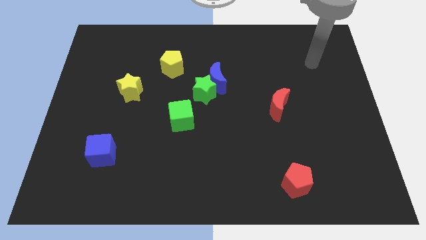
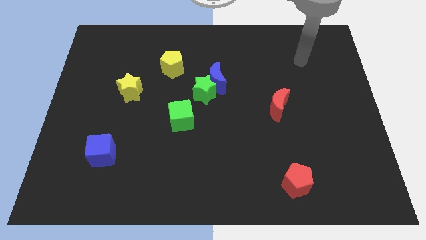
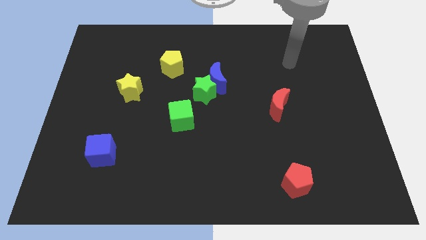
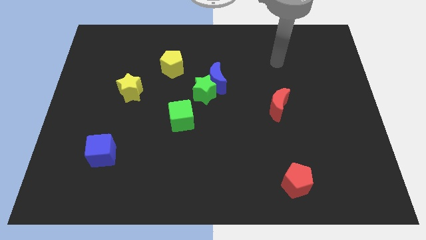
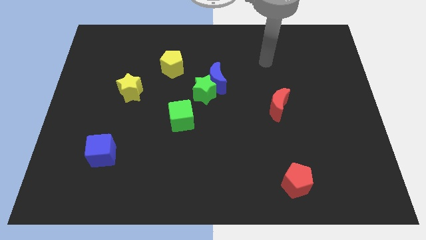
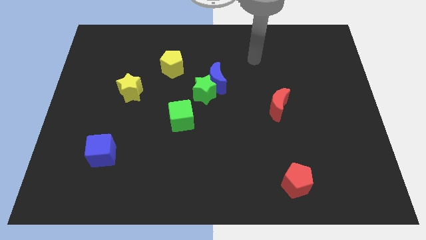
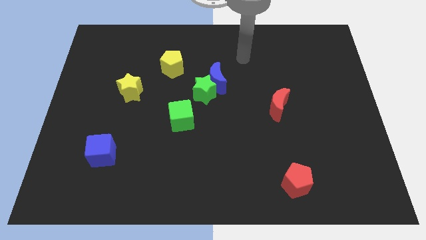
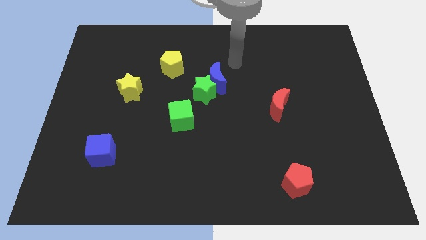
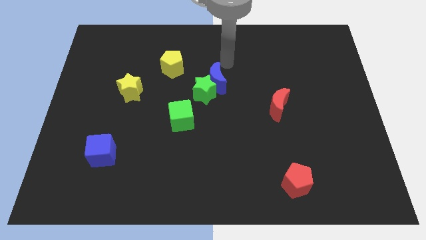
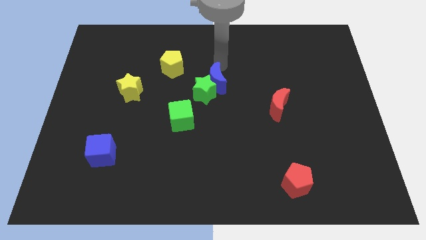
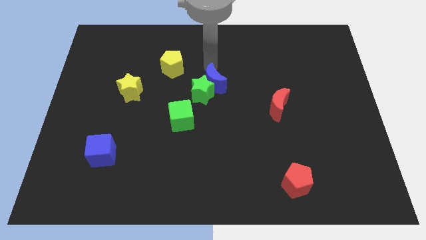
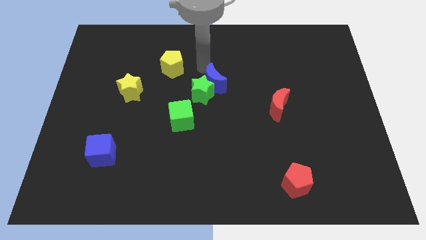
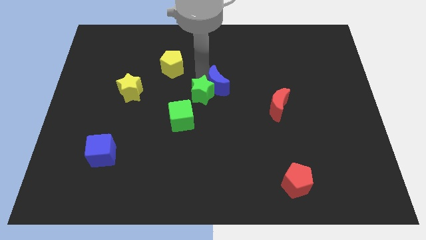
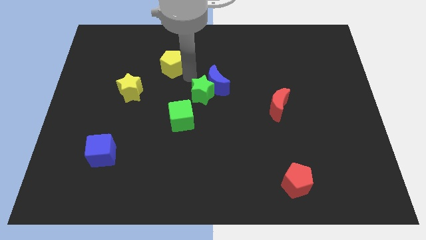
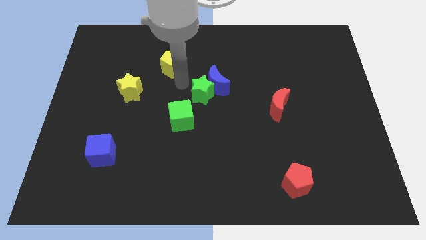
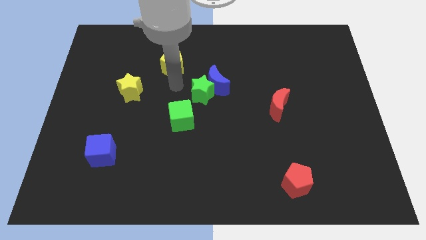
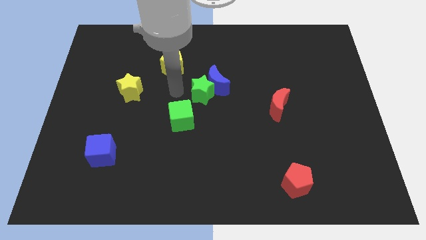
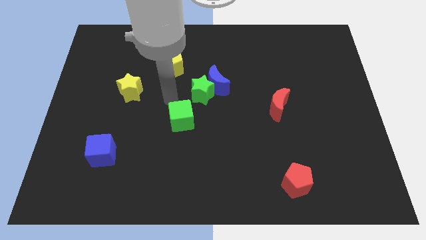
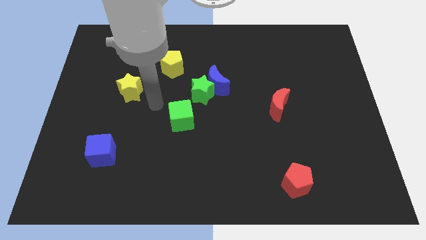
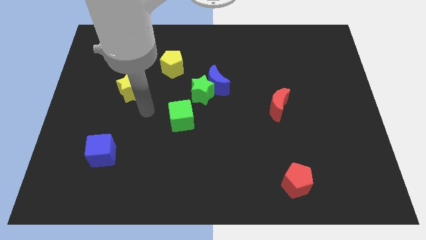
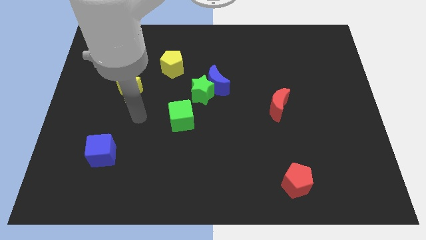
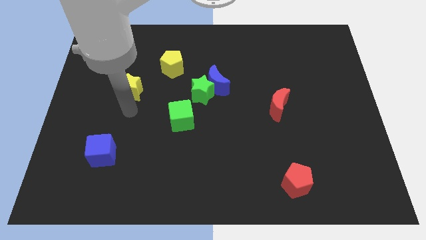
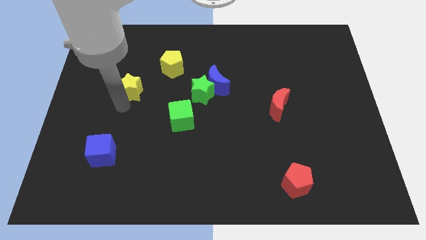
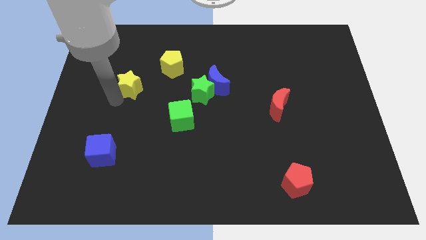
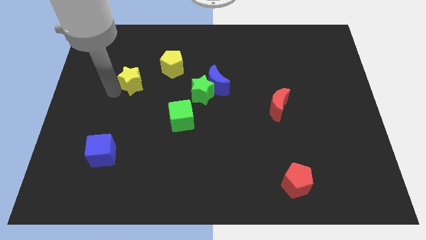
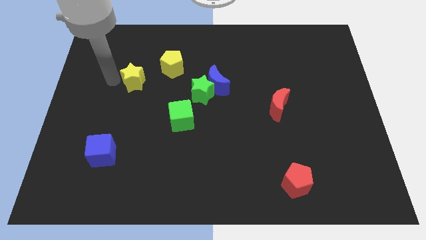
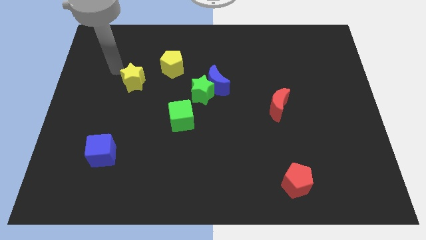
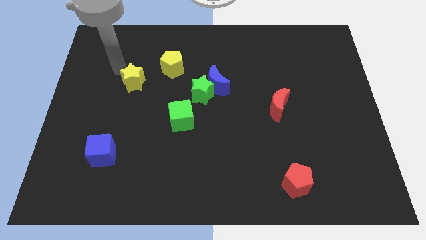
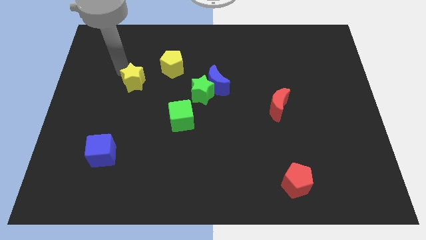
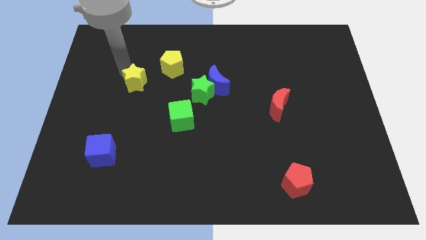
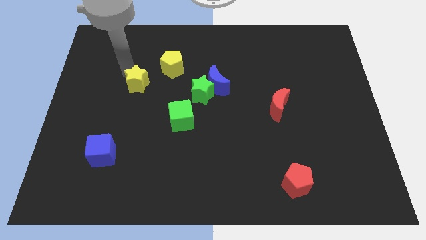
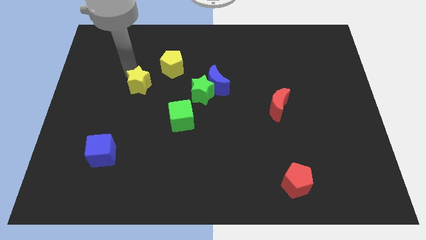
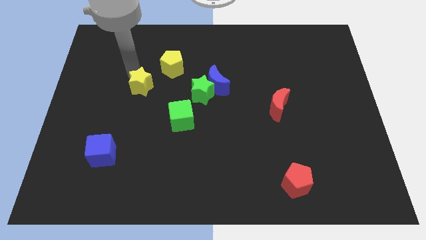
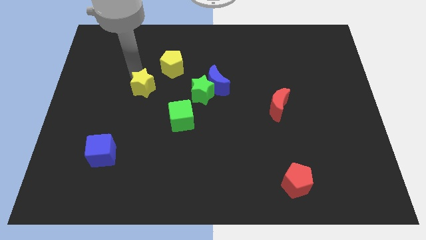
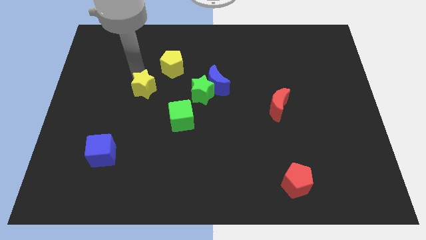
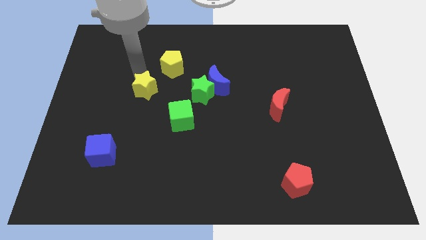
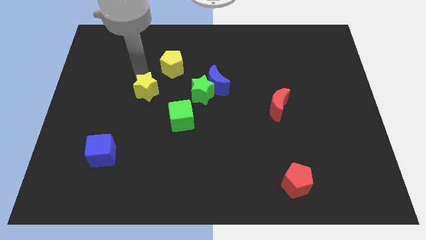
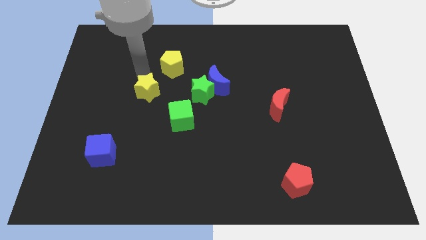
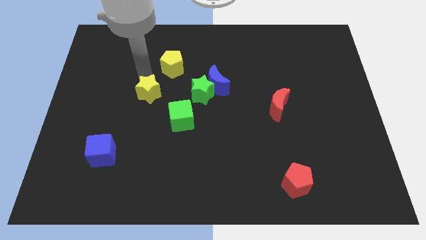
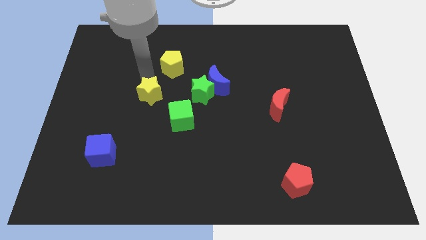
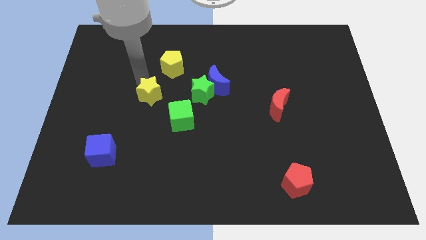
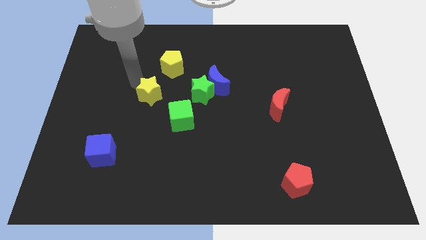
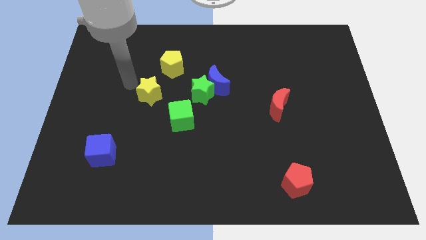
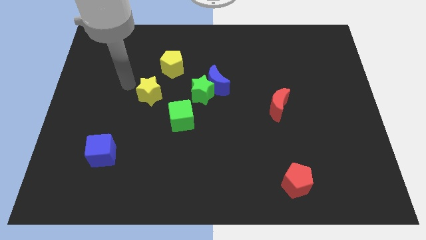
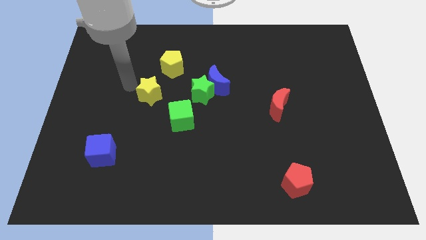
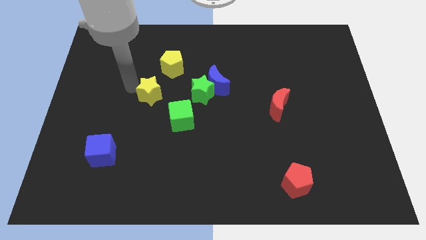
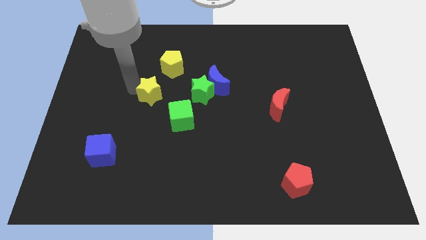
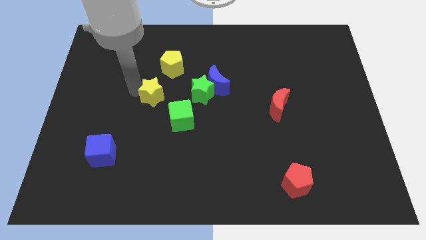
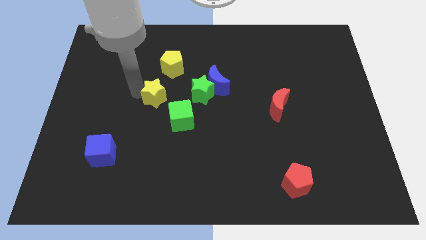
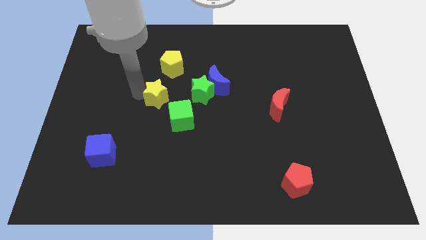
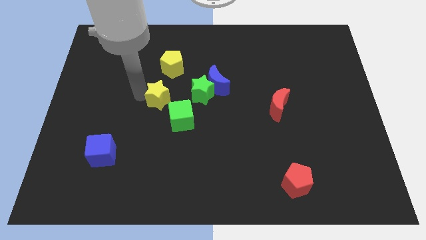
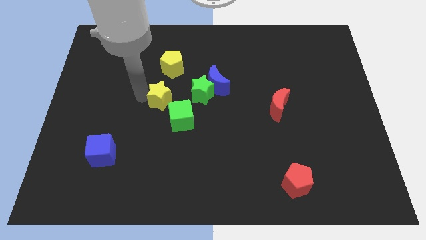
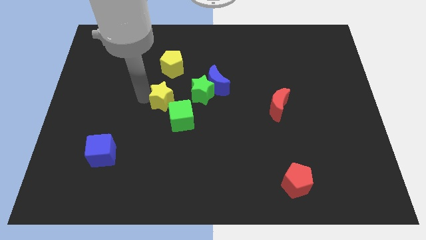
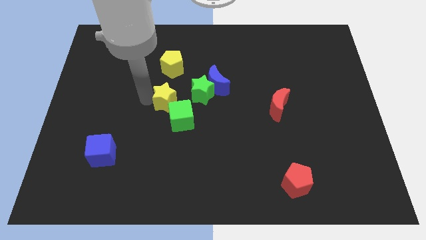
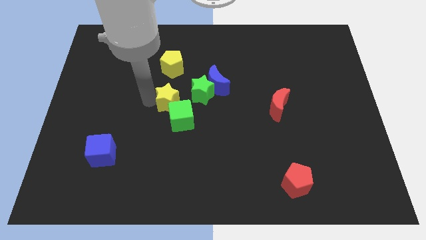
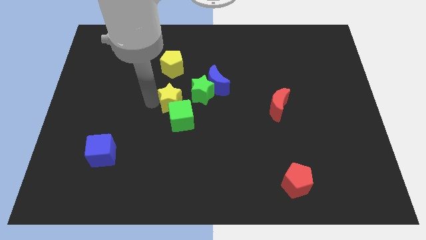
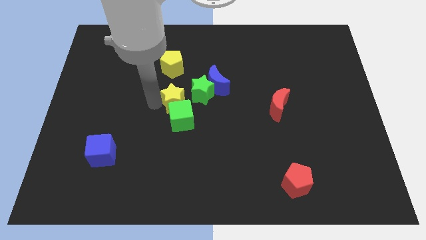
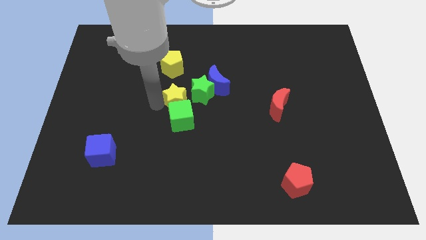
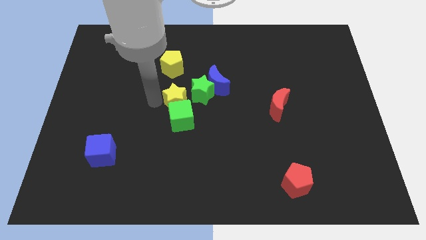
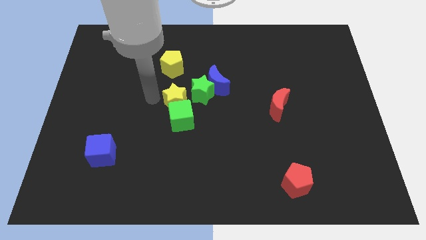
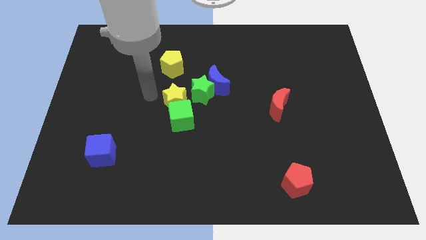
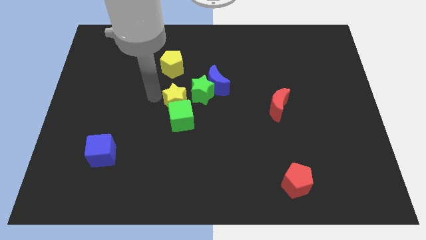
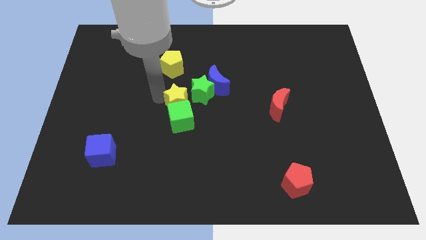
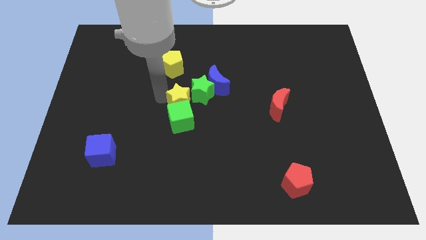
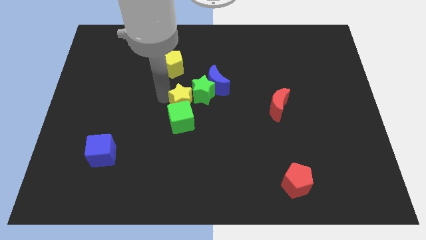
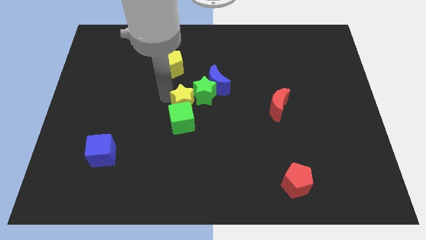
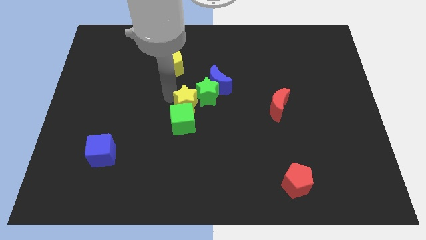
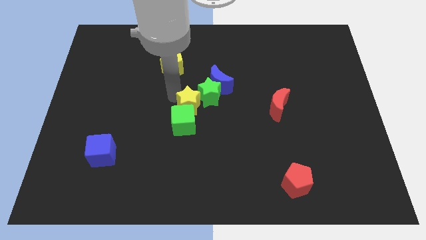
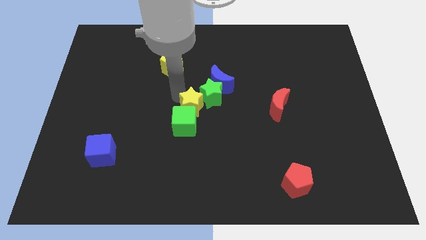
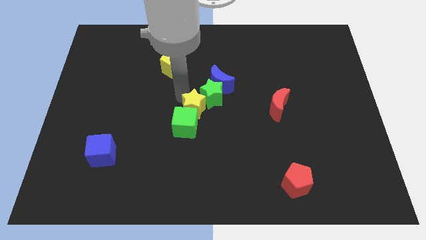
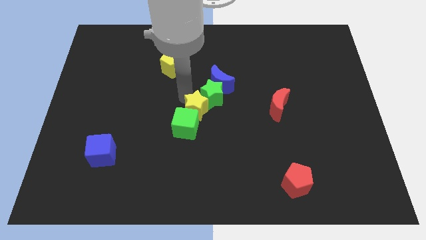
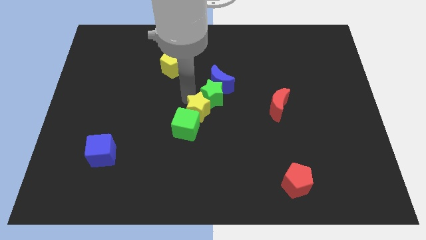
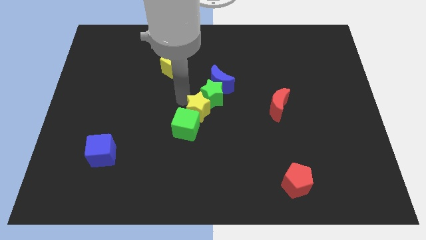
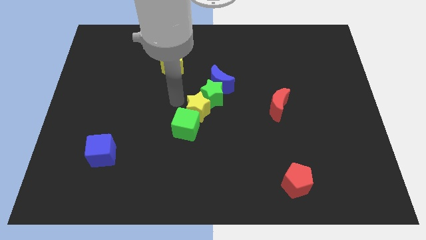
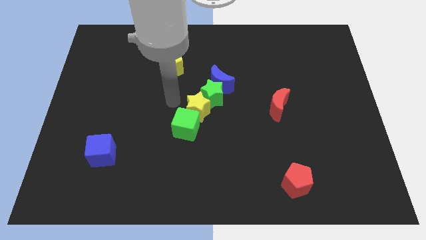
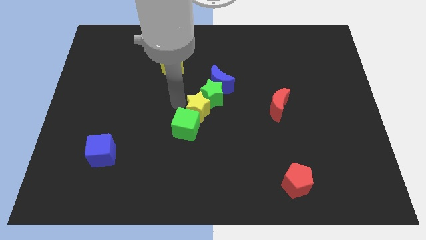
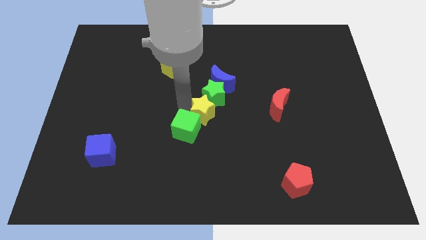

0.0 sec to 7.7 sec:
slide the yellow star below the blue moon

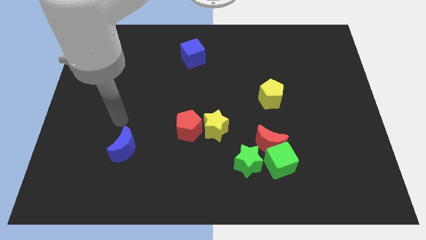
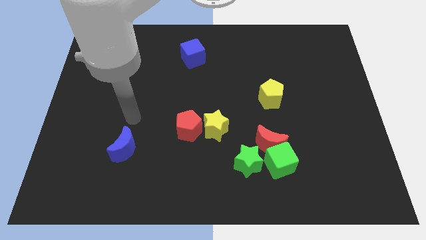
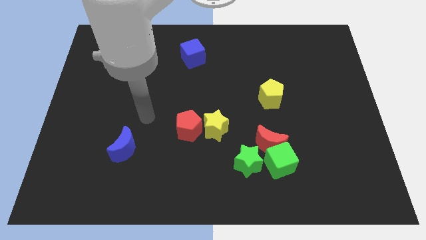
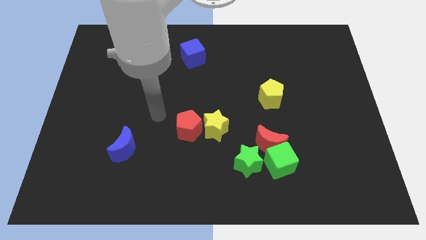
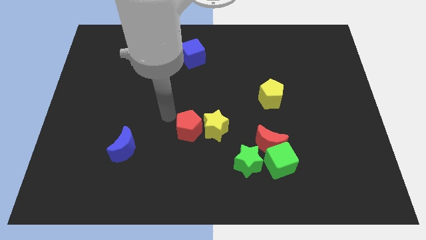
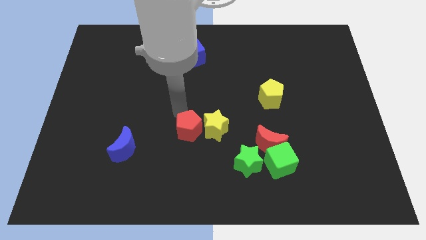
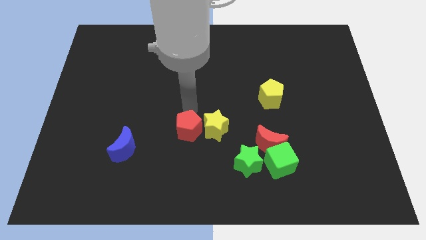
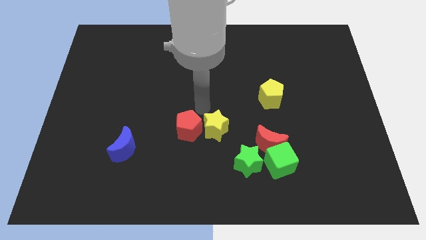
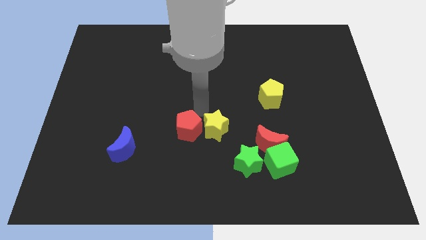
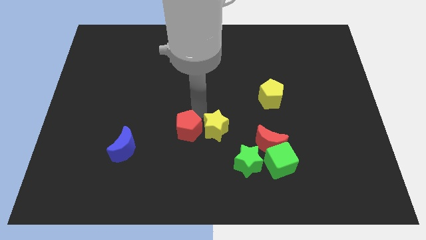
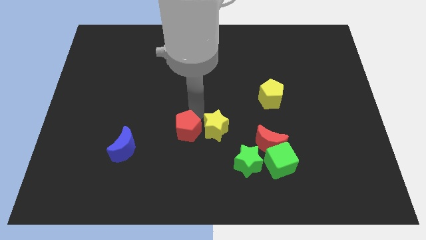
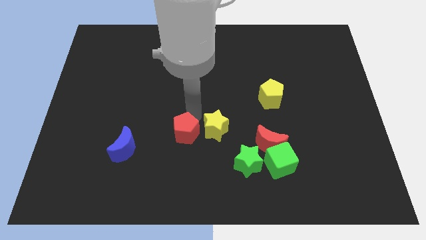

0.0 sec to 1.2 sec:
push the red pentagon to the right side of the blue moon
